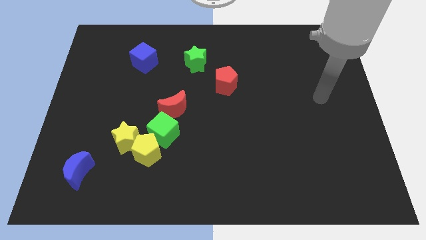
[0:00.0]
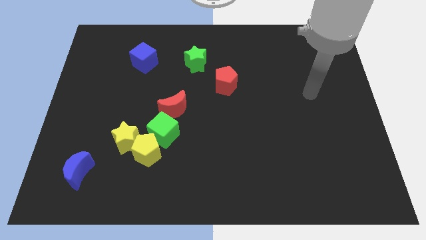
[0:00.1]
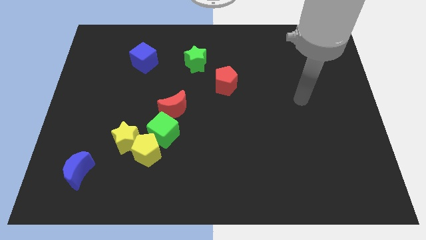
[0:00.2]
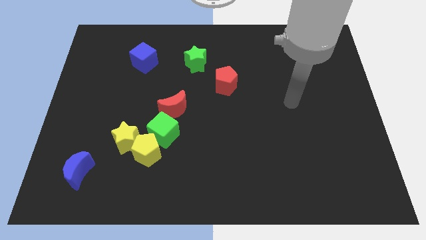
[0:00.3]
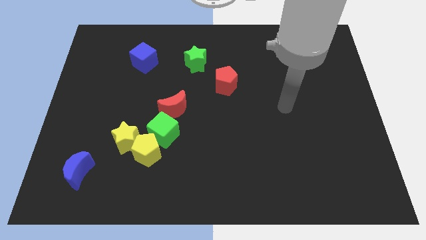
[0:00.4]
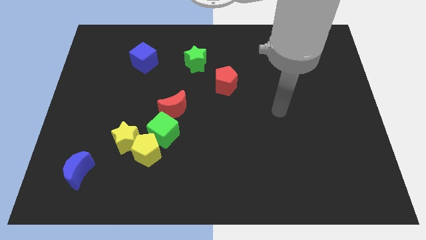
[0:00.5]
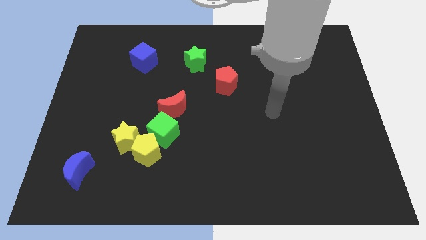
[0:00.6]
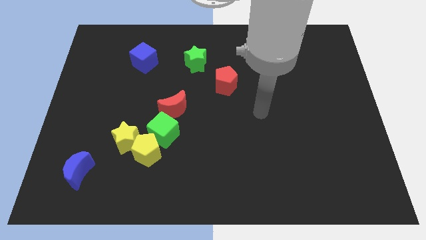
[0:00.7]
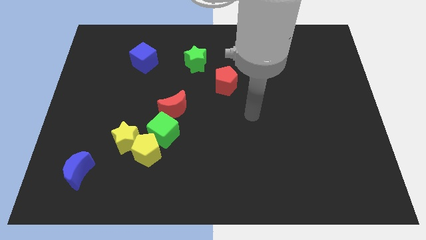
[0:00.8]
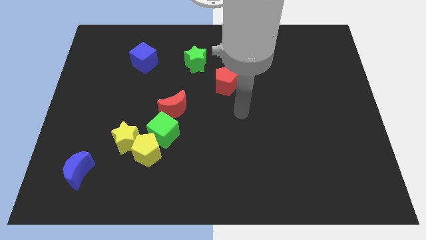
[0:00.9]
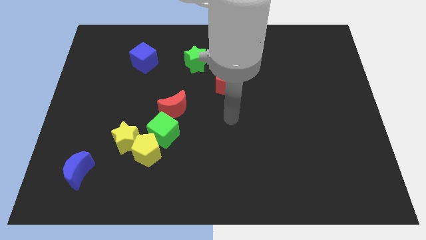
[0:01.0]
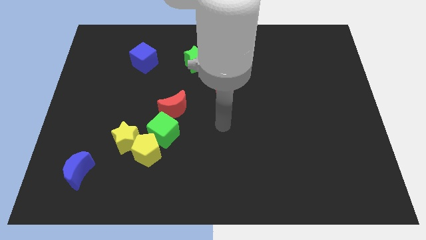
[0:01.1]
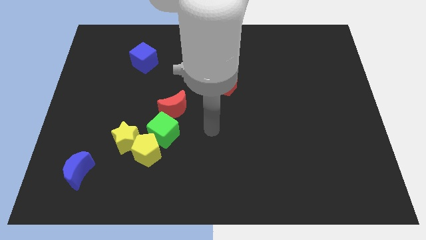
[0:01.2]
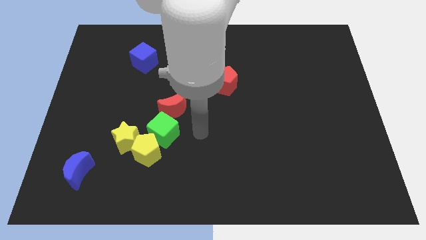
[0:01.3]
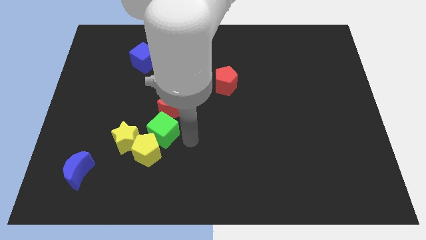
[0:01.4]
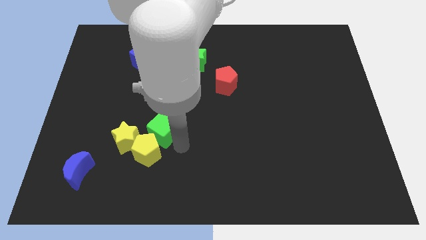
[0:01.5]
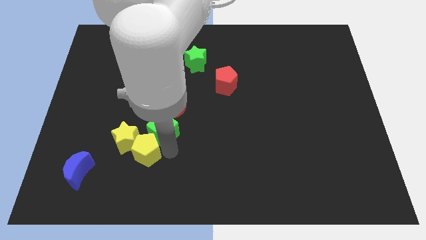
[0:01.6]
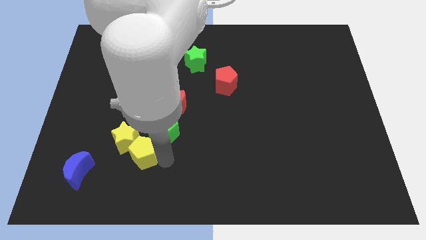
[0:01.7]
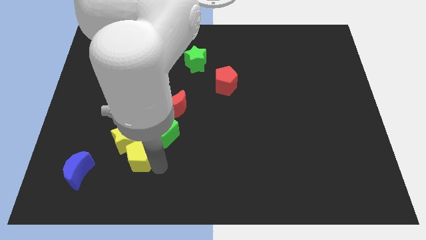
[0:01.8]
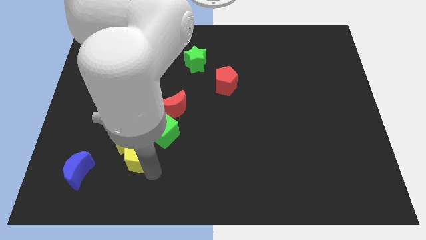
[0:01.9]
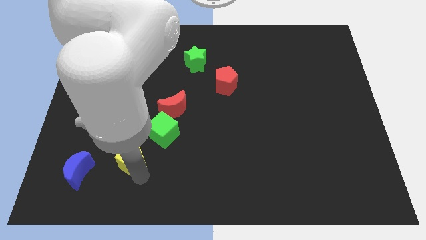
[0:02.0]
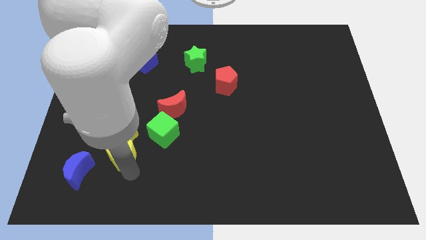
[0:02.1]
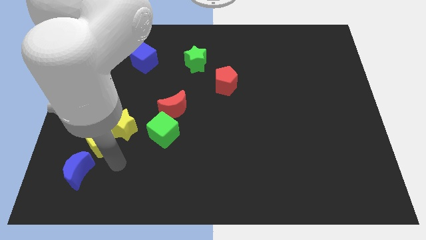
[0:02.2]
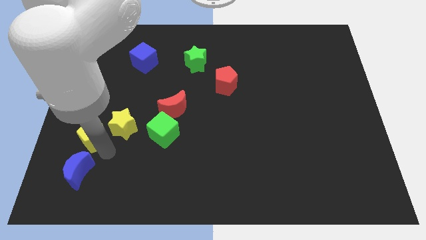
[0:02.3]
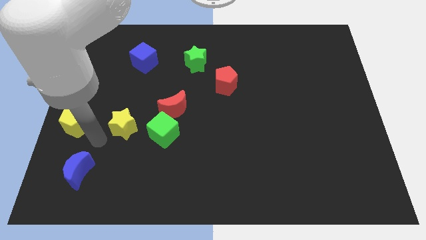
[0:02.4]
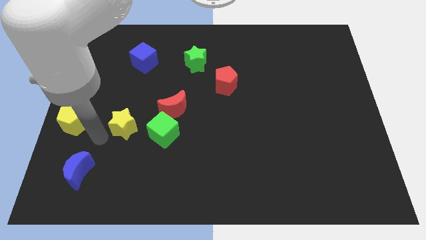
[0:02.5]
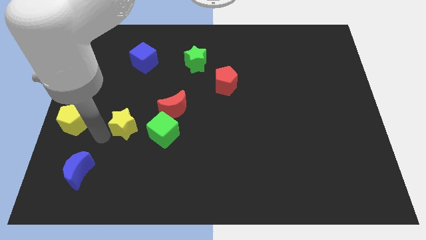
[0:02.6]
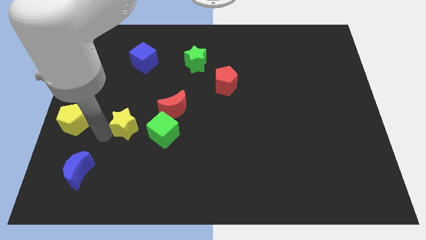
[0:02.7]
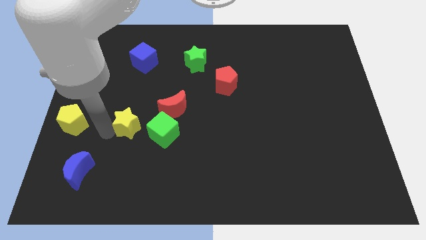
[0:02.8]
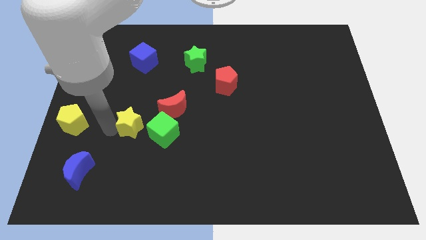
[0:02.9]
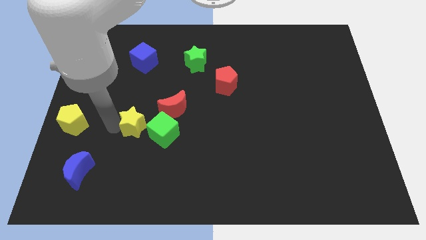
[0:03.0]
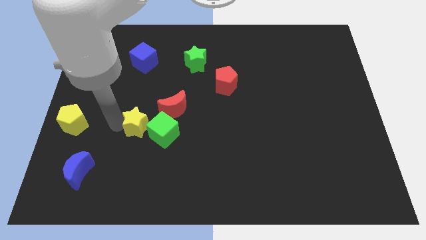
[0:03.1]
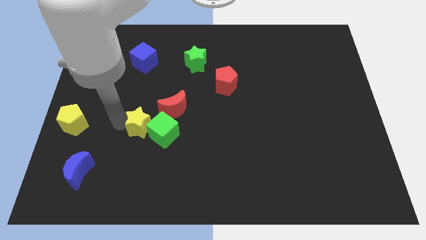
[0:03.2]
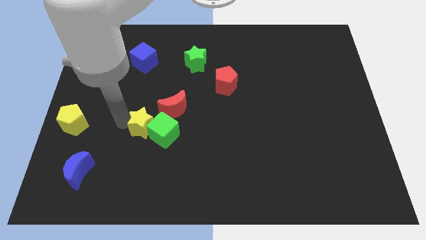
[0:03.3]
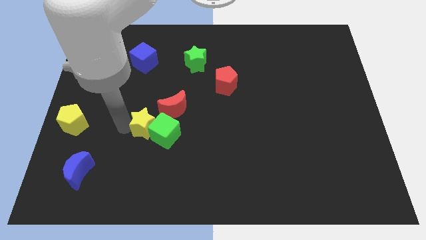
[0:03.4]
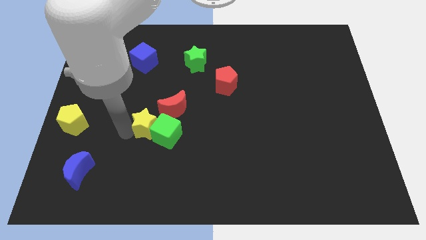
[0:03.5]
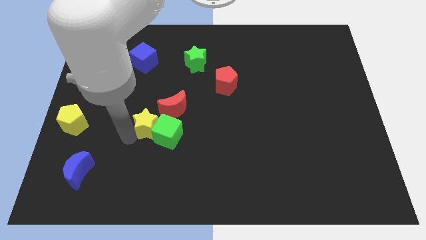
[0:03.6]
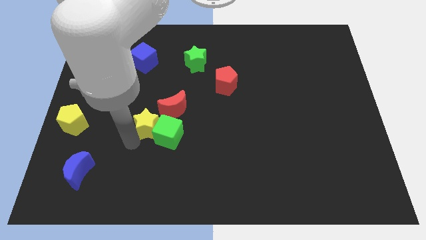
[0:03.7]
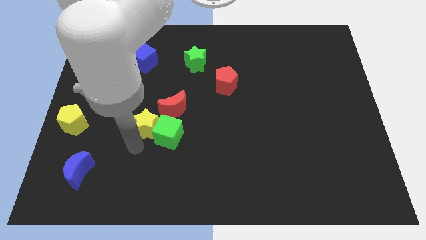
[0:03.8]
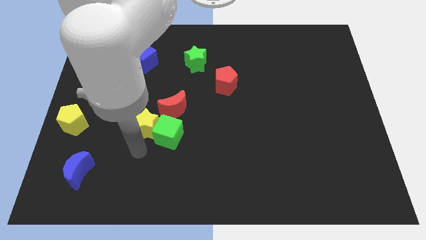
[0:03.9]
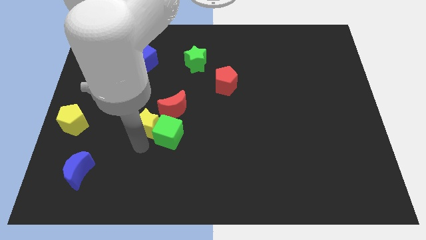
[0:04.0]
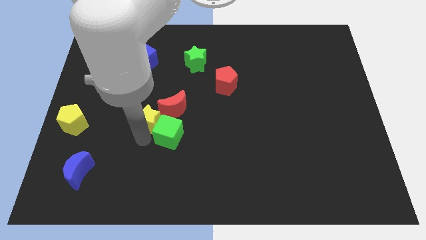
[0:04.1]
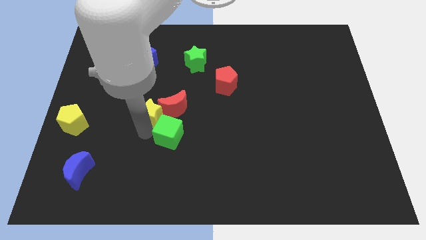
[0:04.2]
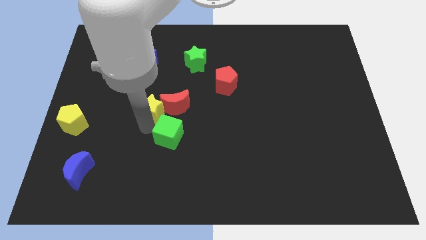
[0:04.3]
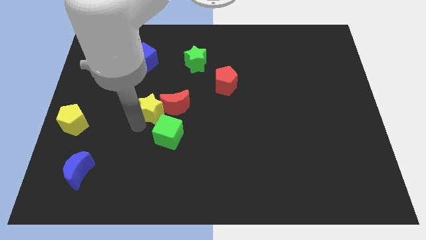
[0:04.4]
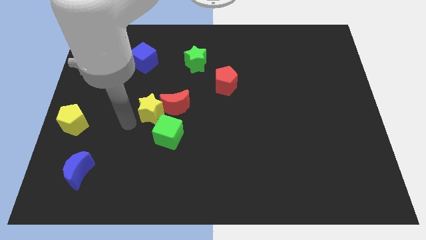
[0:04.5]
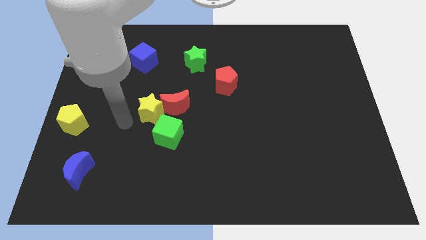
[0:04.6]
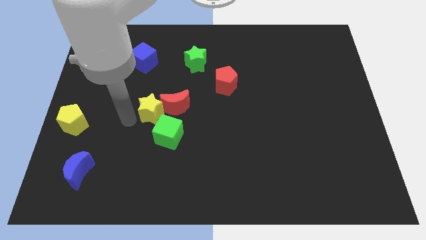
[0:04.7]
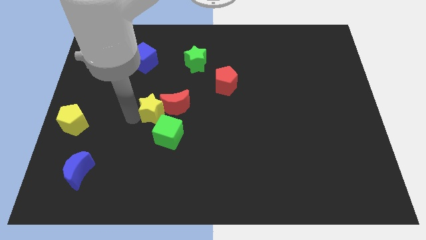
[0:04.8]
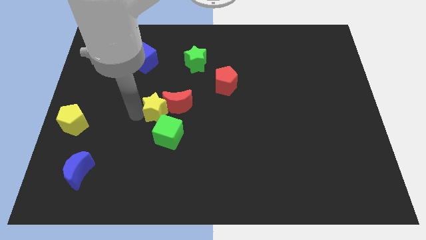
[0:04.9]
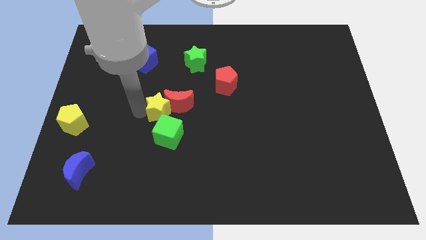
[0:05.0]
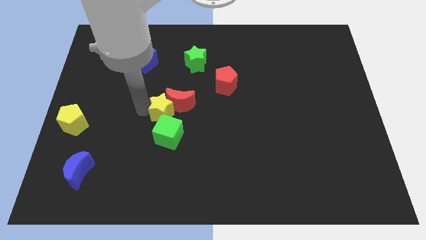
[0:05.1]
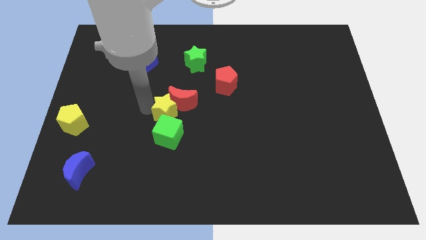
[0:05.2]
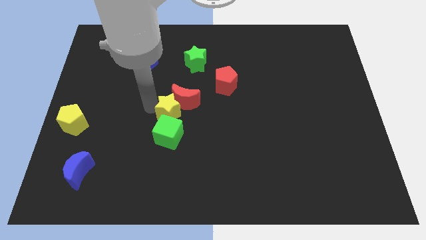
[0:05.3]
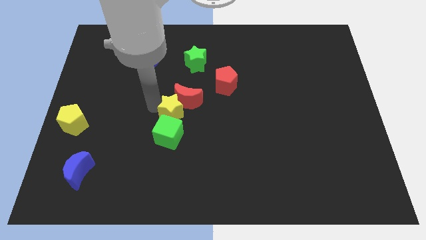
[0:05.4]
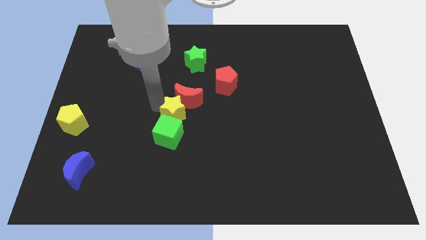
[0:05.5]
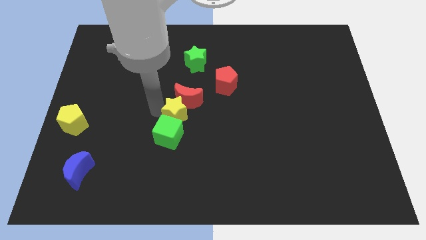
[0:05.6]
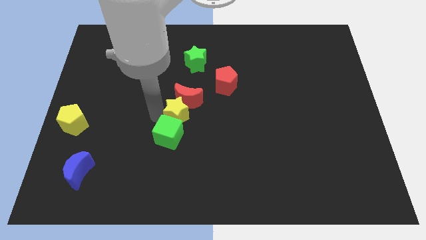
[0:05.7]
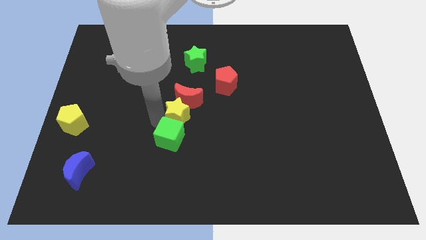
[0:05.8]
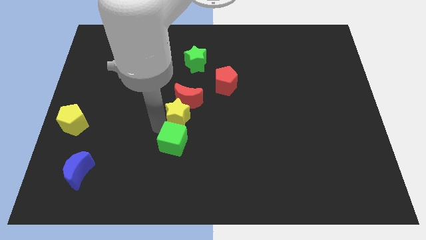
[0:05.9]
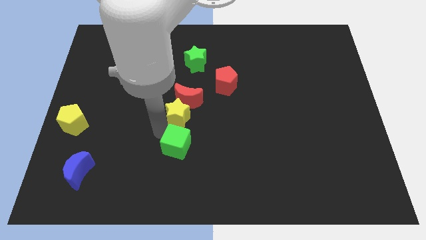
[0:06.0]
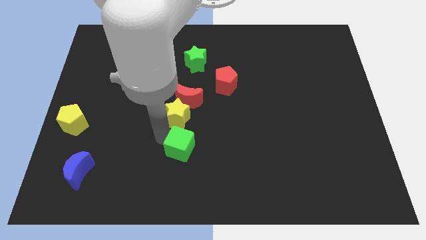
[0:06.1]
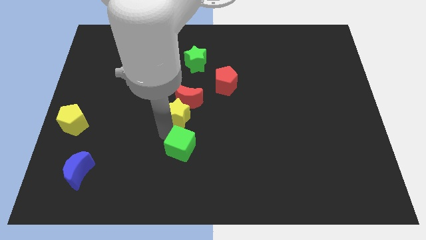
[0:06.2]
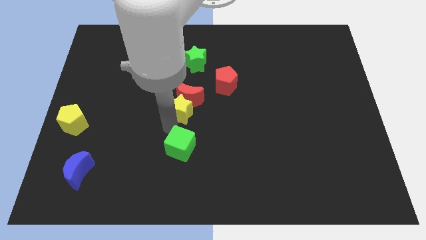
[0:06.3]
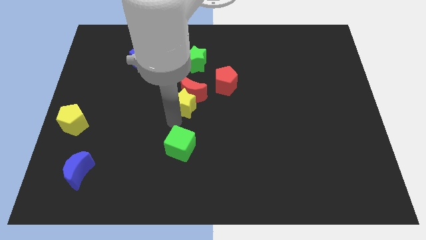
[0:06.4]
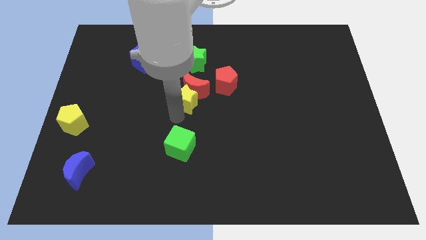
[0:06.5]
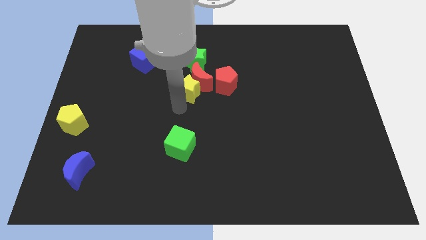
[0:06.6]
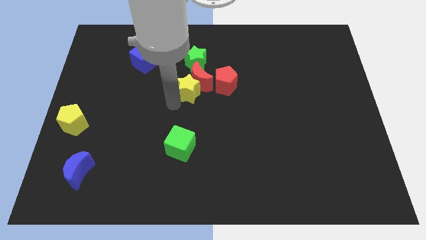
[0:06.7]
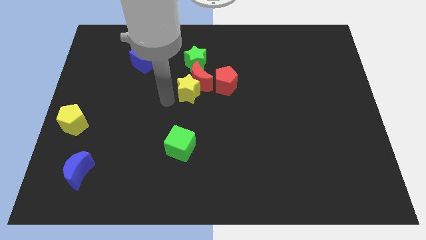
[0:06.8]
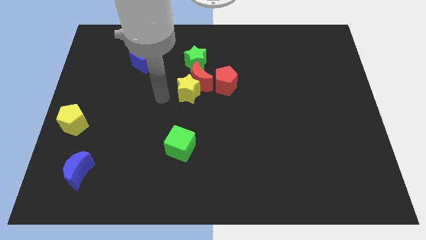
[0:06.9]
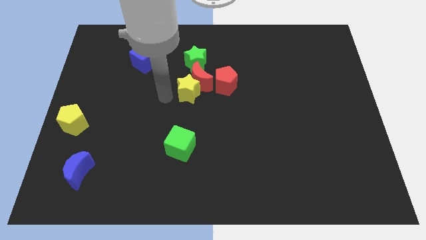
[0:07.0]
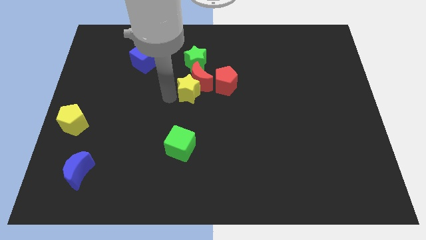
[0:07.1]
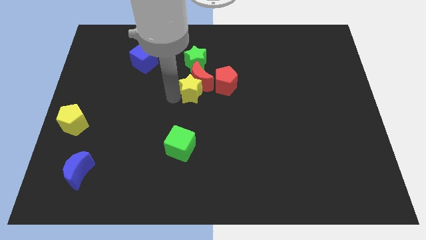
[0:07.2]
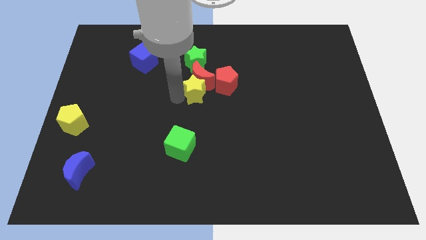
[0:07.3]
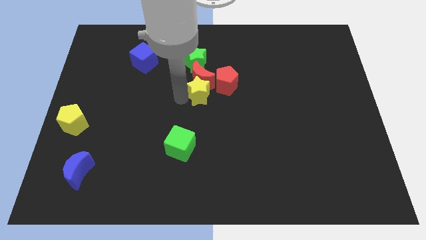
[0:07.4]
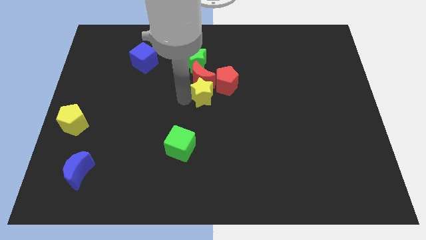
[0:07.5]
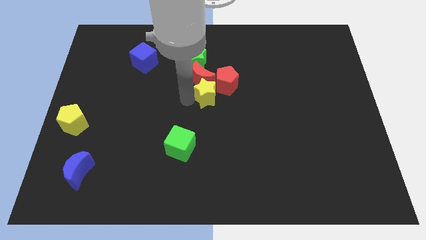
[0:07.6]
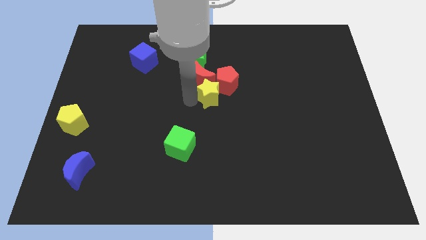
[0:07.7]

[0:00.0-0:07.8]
slide the yellow star close to the red pentagon
